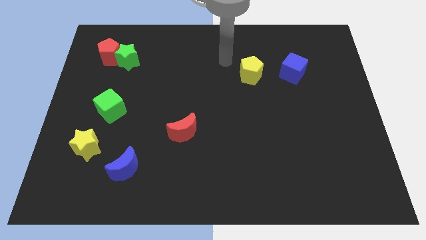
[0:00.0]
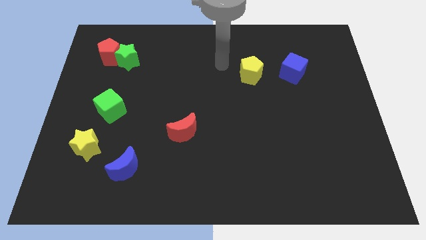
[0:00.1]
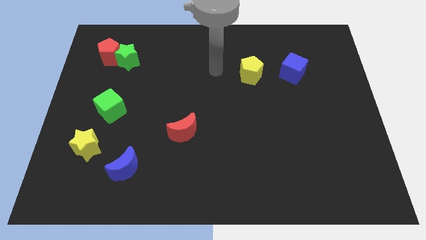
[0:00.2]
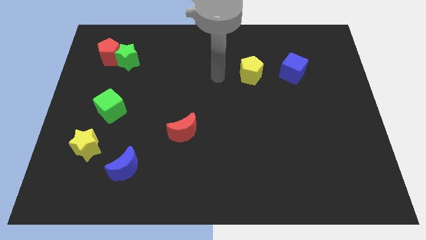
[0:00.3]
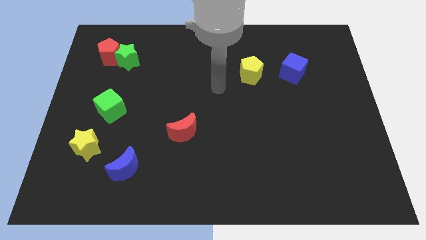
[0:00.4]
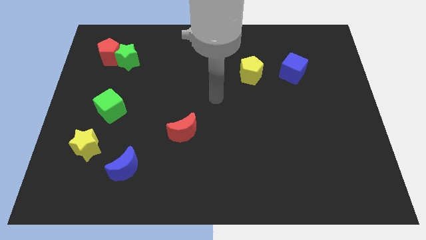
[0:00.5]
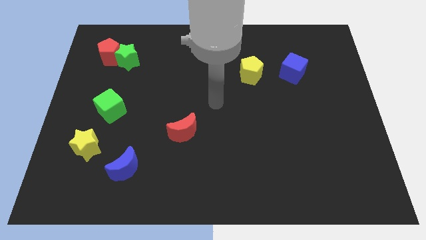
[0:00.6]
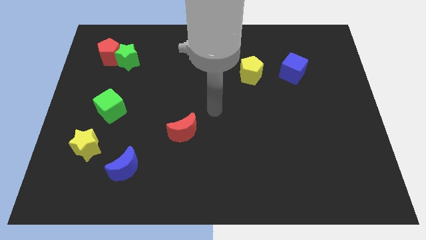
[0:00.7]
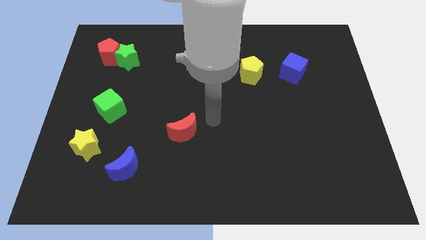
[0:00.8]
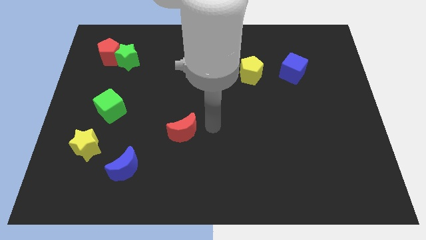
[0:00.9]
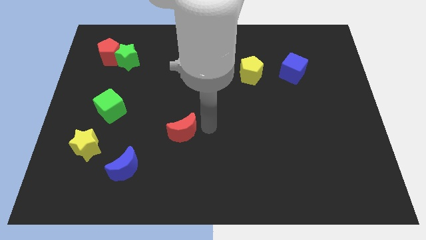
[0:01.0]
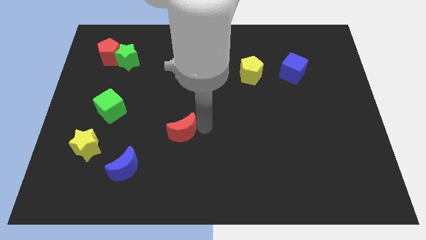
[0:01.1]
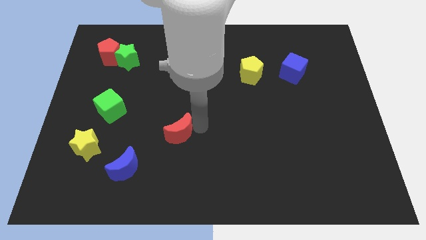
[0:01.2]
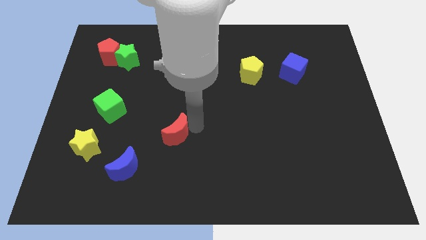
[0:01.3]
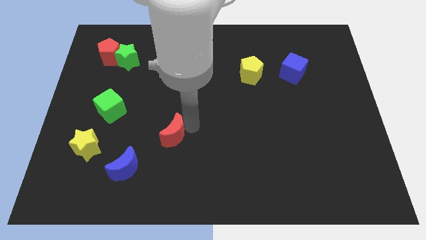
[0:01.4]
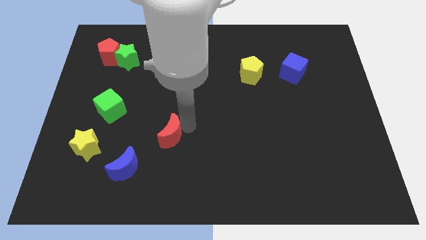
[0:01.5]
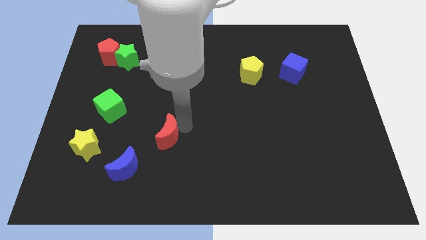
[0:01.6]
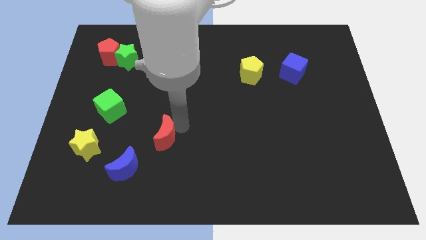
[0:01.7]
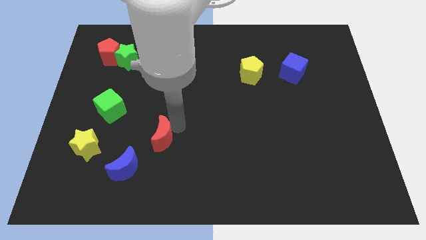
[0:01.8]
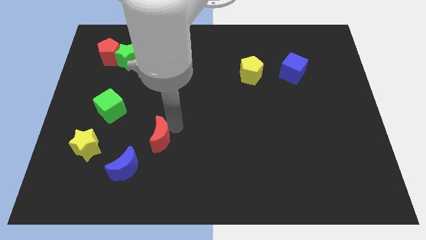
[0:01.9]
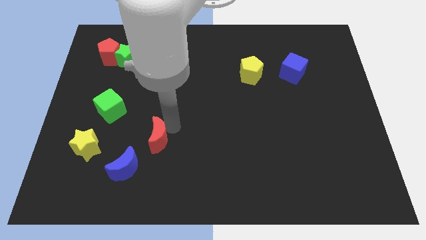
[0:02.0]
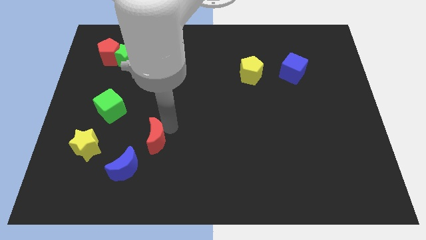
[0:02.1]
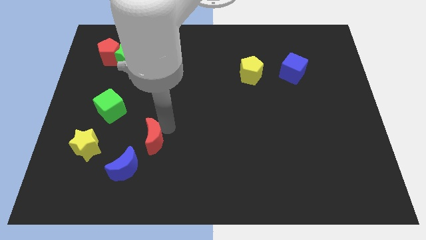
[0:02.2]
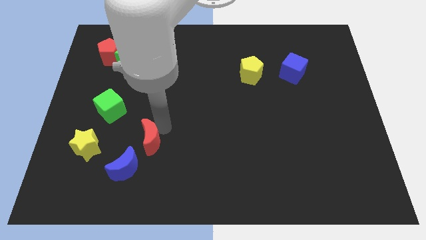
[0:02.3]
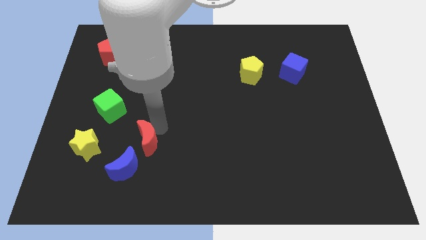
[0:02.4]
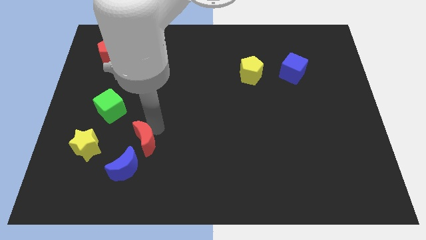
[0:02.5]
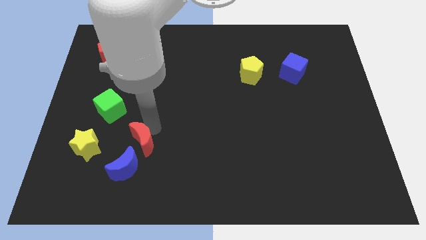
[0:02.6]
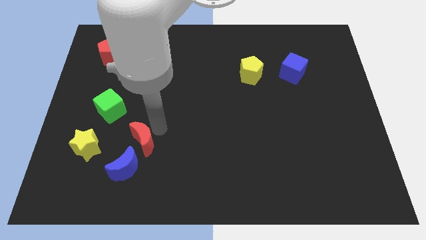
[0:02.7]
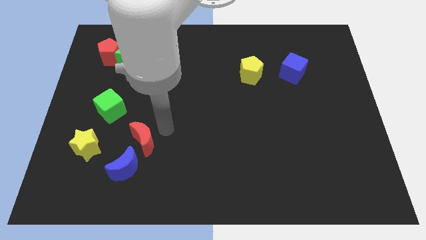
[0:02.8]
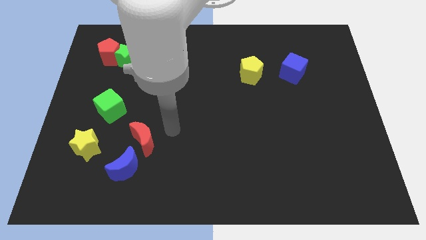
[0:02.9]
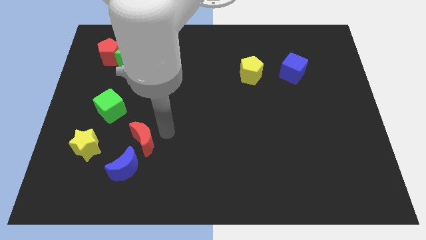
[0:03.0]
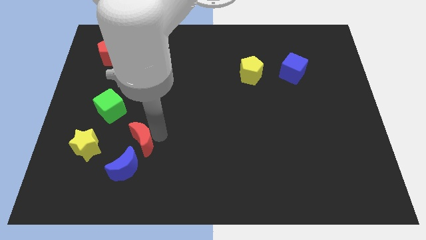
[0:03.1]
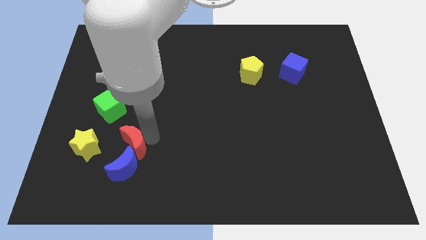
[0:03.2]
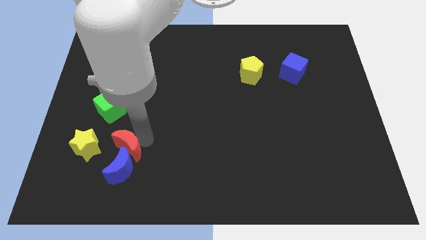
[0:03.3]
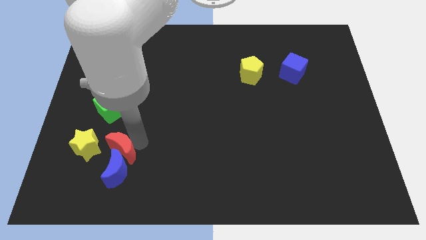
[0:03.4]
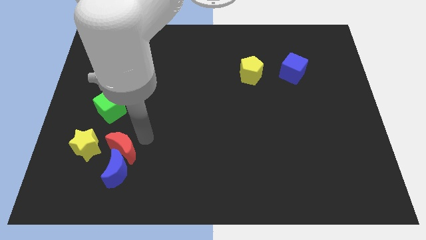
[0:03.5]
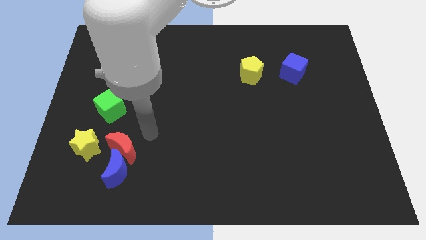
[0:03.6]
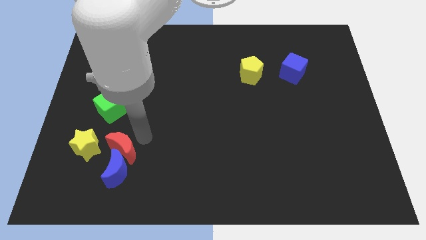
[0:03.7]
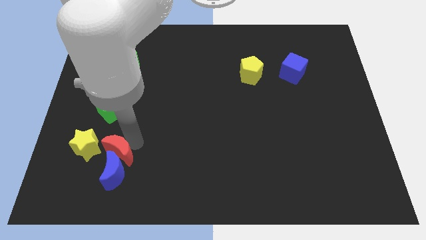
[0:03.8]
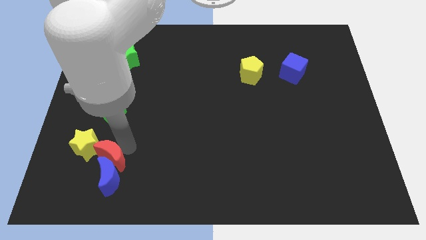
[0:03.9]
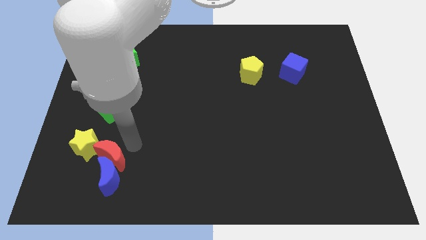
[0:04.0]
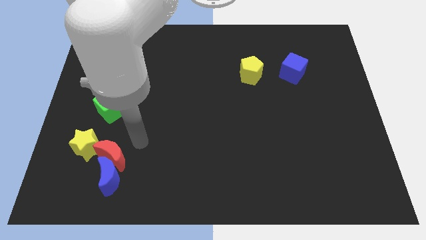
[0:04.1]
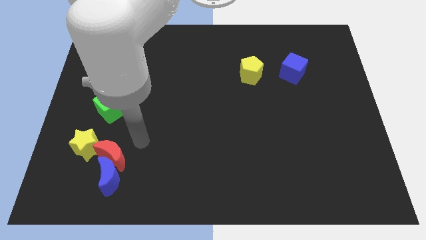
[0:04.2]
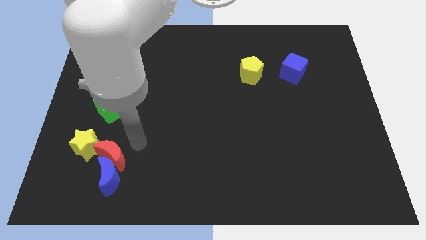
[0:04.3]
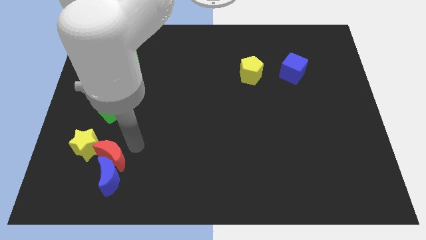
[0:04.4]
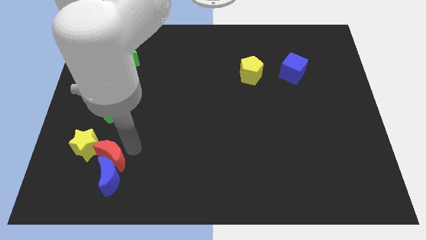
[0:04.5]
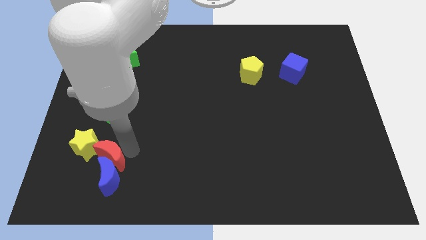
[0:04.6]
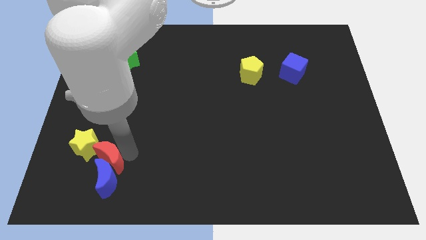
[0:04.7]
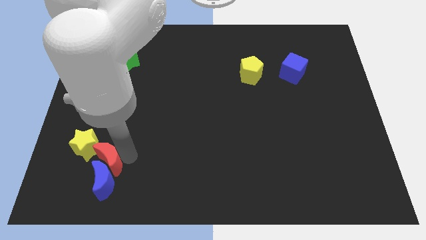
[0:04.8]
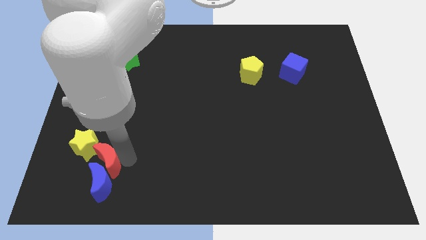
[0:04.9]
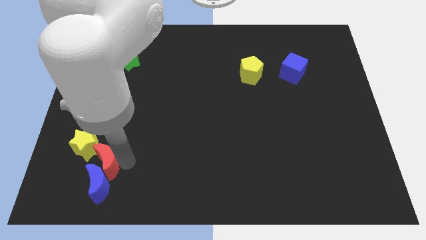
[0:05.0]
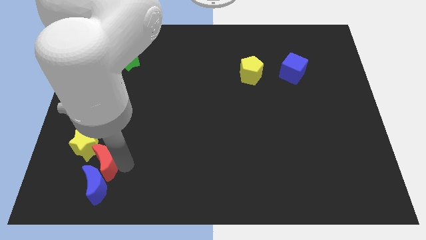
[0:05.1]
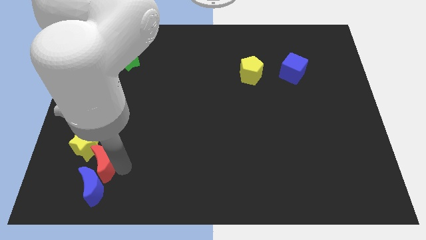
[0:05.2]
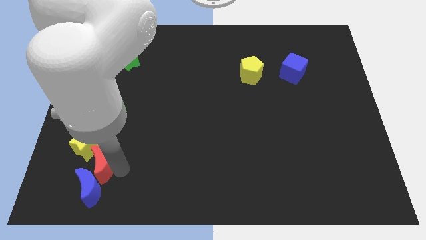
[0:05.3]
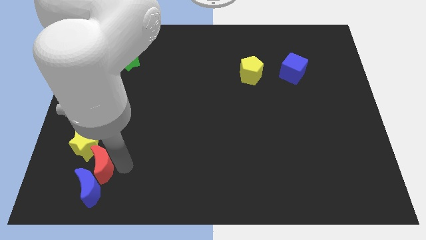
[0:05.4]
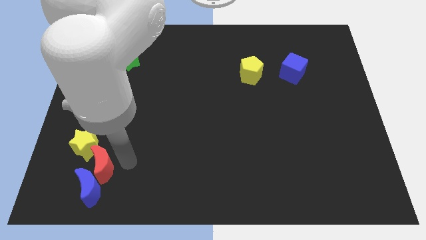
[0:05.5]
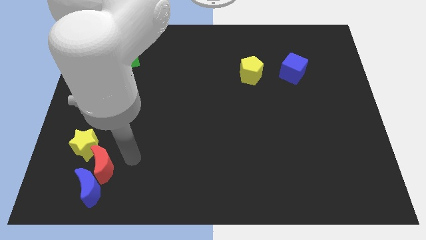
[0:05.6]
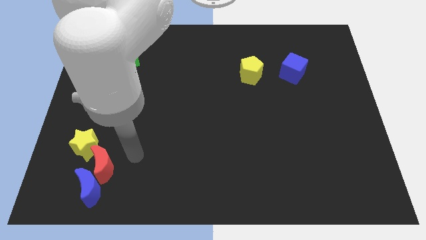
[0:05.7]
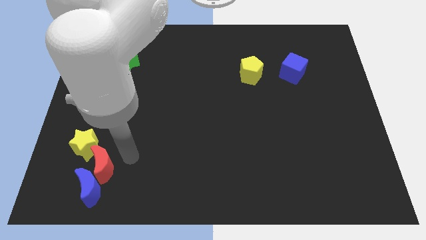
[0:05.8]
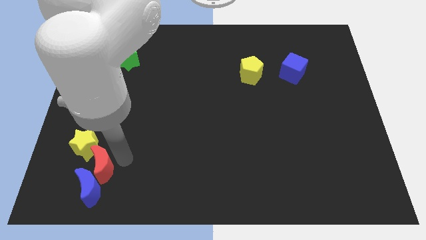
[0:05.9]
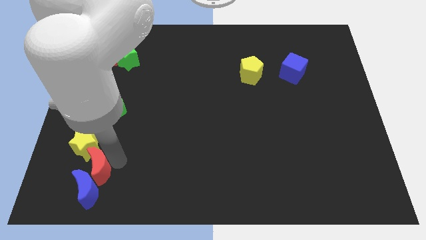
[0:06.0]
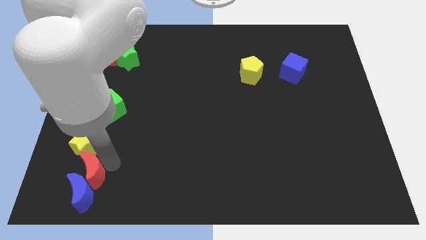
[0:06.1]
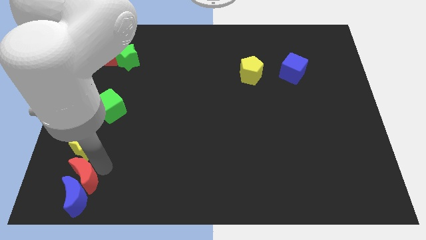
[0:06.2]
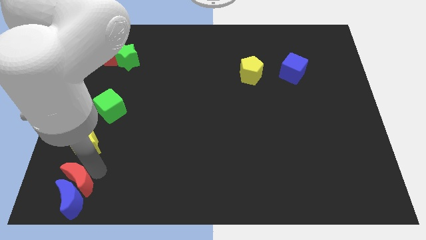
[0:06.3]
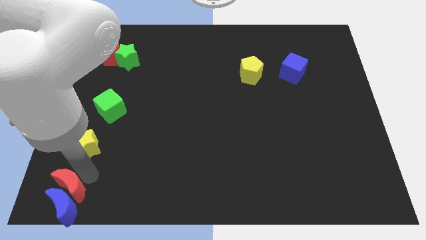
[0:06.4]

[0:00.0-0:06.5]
move the red moon to the bottom left of the board
